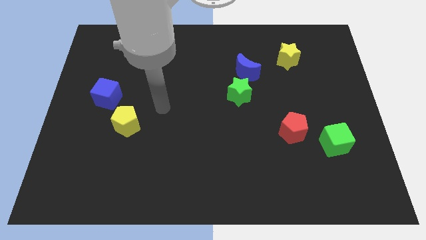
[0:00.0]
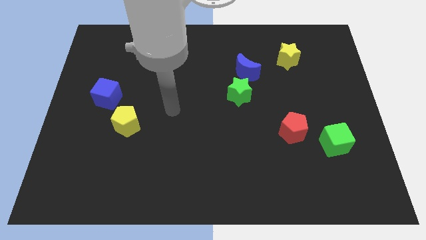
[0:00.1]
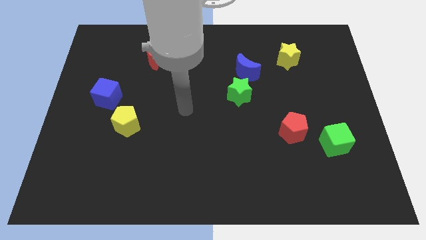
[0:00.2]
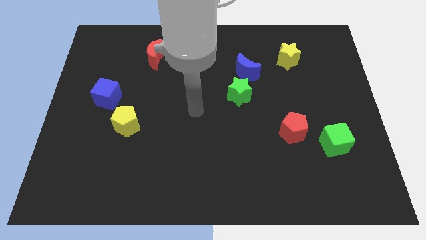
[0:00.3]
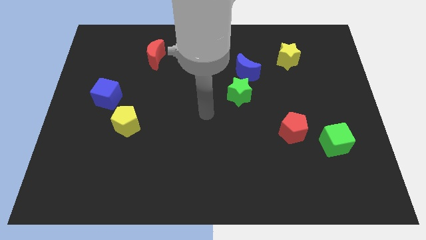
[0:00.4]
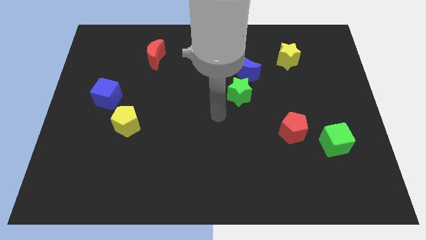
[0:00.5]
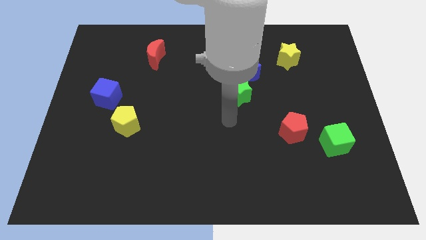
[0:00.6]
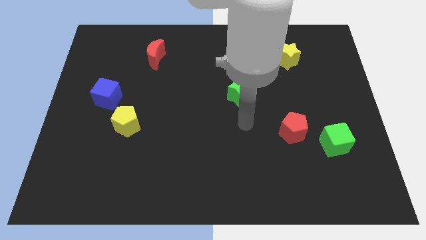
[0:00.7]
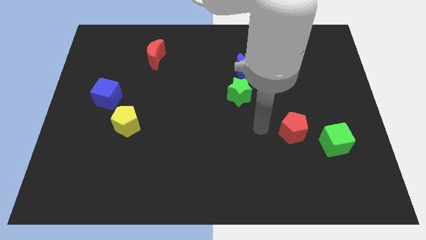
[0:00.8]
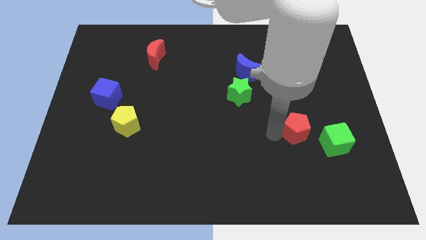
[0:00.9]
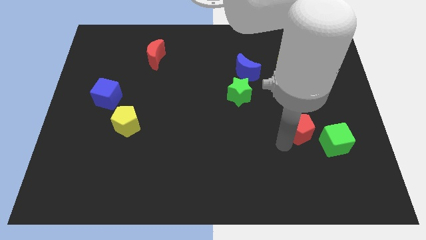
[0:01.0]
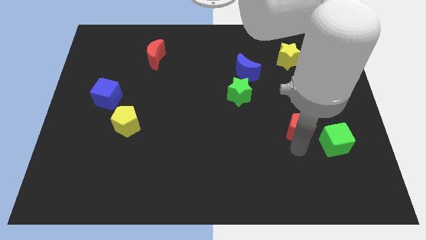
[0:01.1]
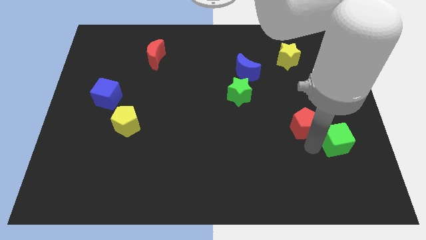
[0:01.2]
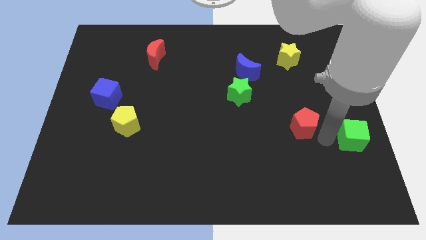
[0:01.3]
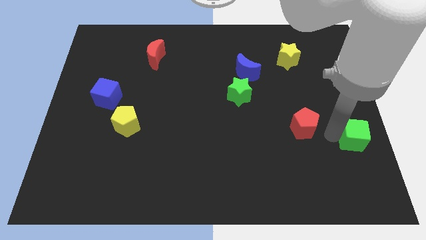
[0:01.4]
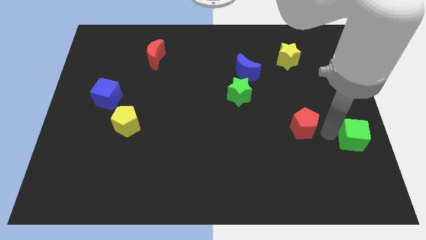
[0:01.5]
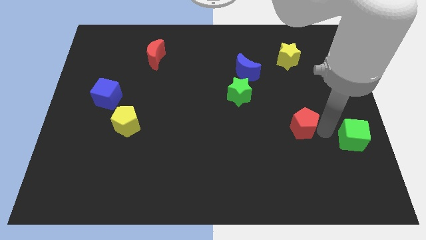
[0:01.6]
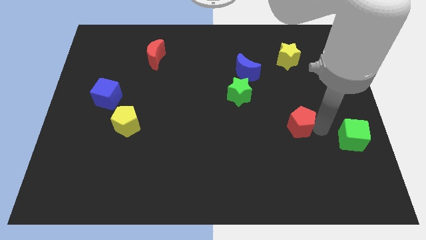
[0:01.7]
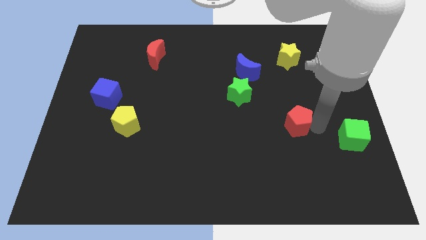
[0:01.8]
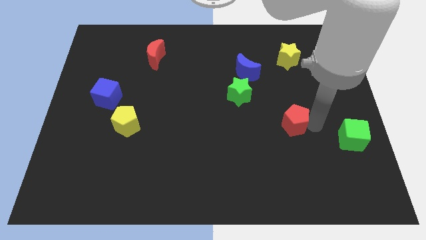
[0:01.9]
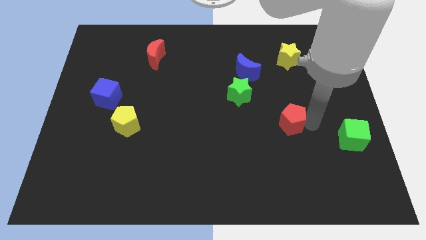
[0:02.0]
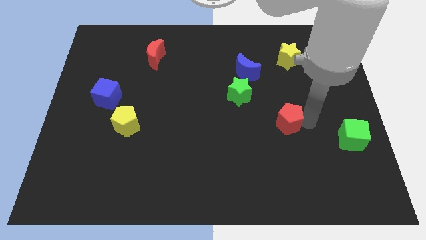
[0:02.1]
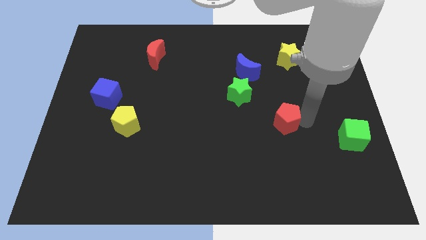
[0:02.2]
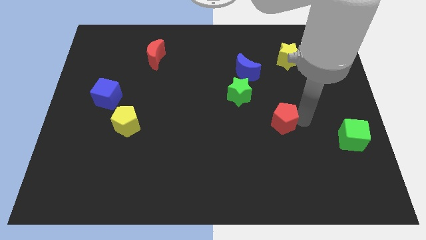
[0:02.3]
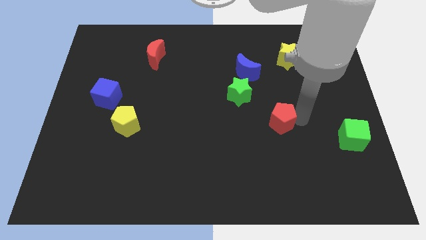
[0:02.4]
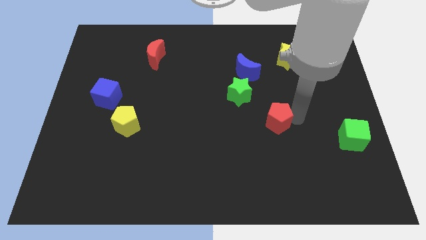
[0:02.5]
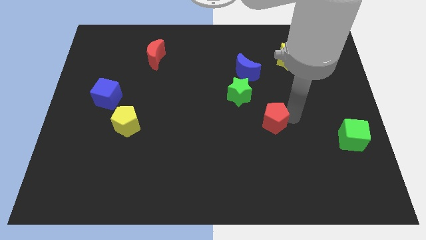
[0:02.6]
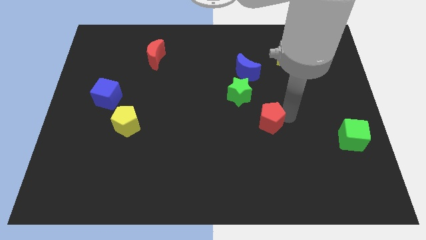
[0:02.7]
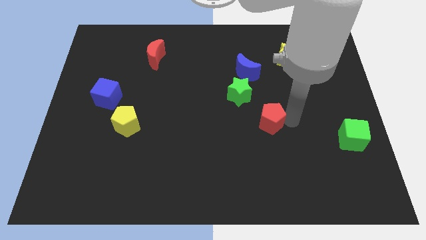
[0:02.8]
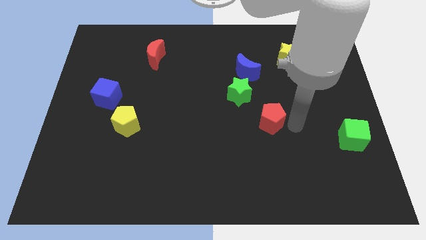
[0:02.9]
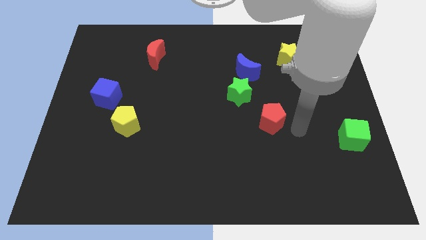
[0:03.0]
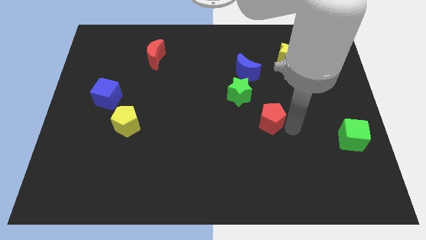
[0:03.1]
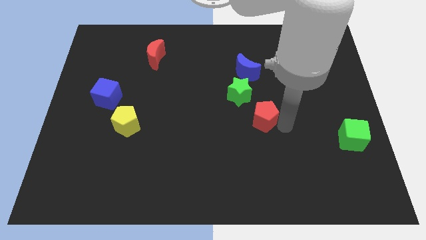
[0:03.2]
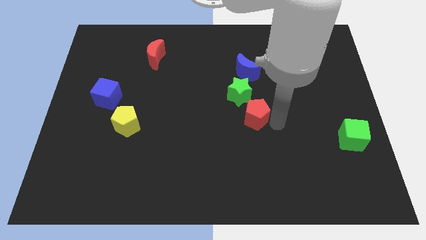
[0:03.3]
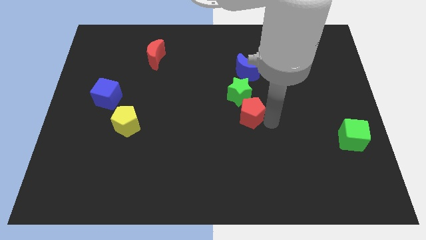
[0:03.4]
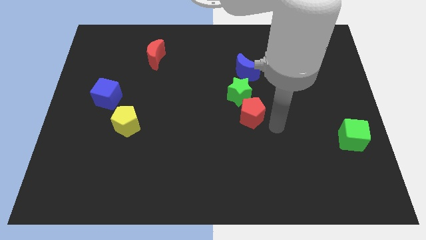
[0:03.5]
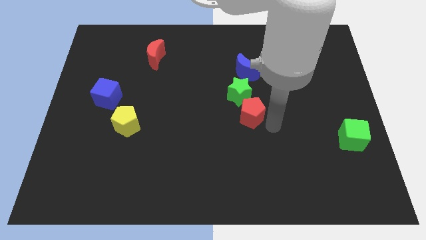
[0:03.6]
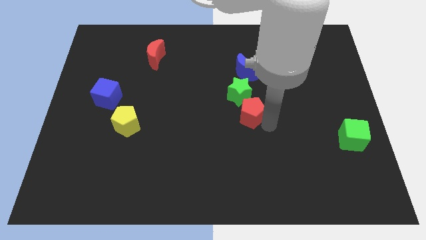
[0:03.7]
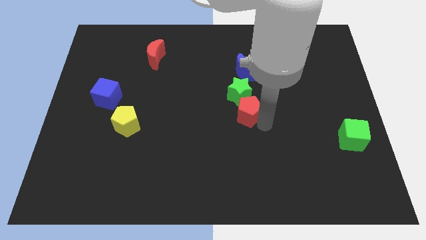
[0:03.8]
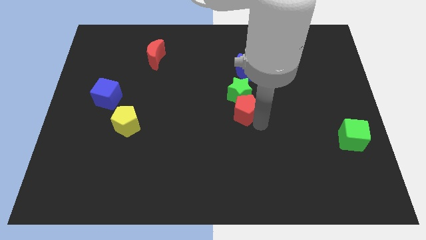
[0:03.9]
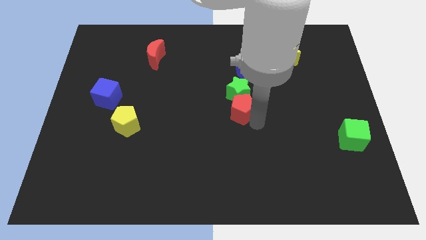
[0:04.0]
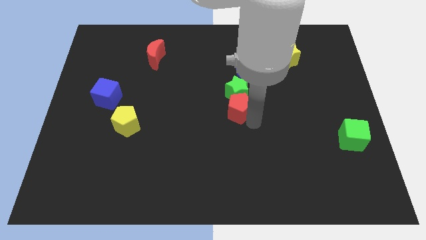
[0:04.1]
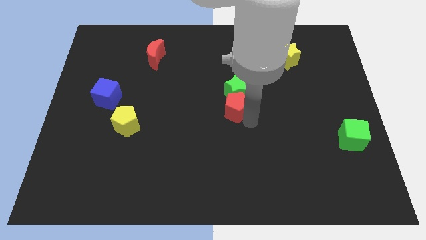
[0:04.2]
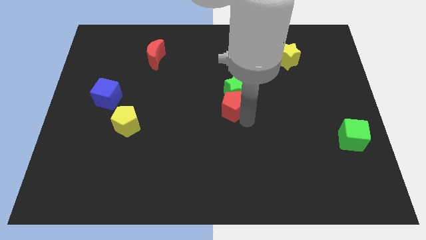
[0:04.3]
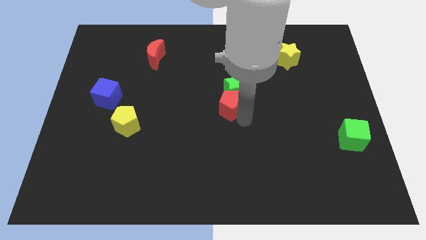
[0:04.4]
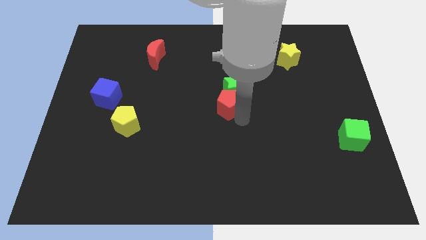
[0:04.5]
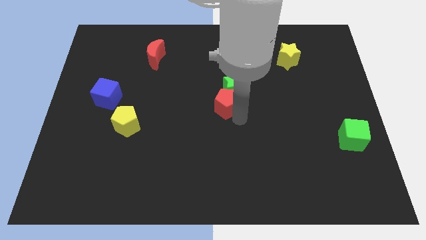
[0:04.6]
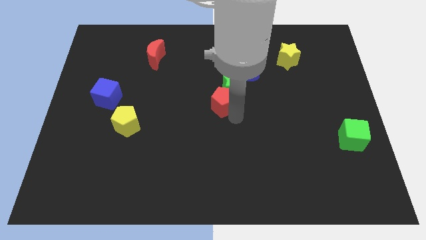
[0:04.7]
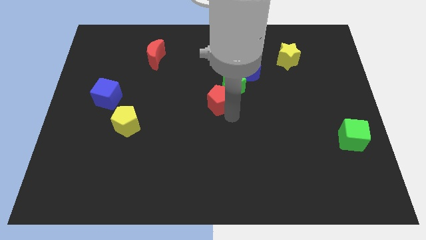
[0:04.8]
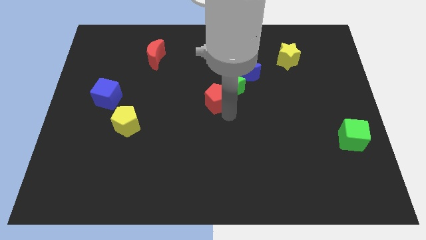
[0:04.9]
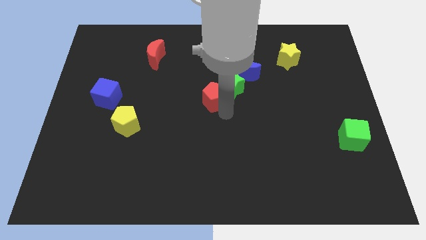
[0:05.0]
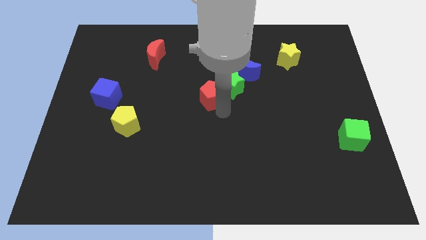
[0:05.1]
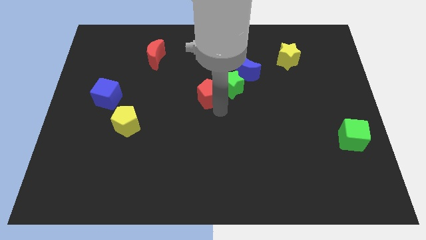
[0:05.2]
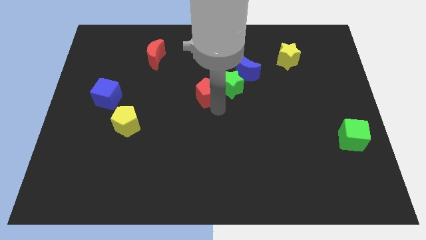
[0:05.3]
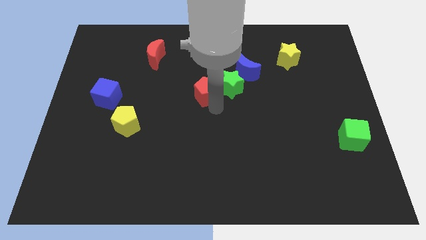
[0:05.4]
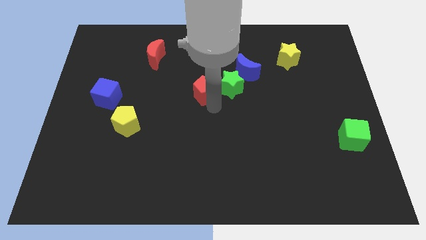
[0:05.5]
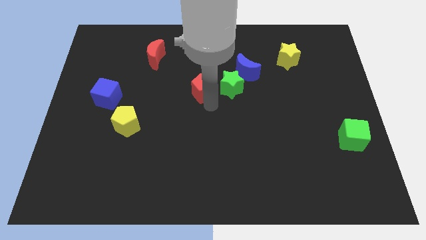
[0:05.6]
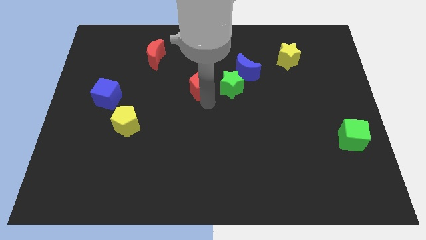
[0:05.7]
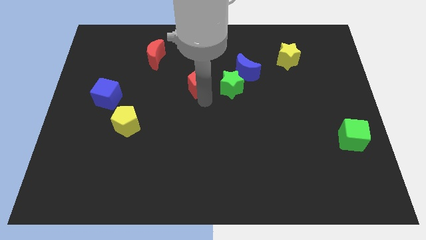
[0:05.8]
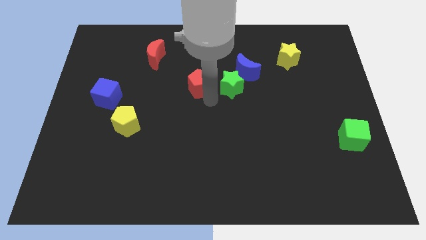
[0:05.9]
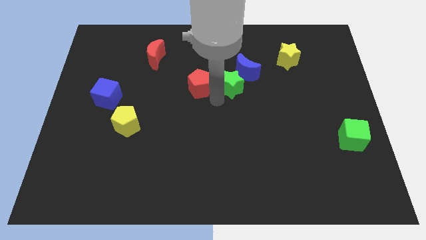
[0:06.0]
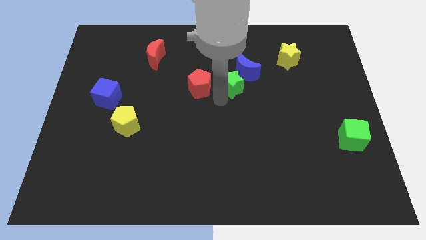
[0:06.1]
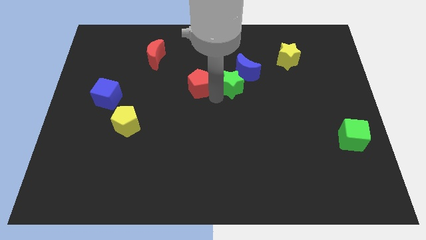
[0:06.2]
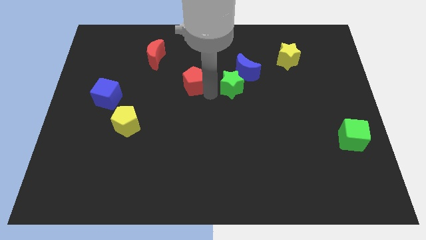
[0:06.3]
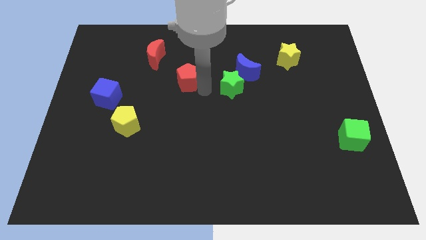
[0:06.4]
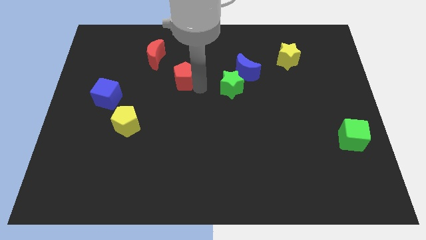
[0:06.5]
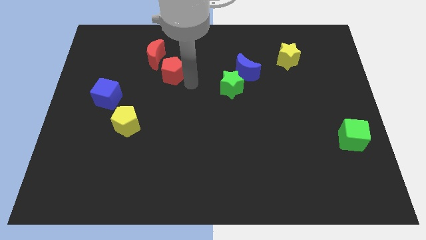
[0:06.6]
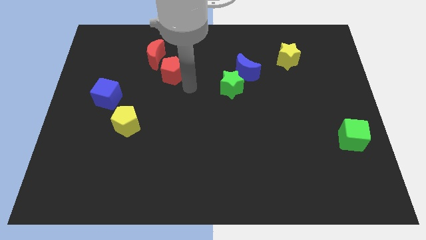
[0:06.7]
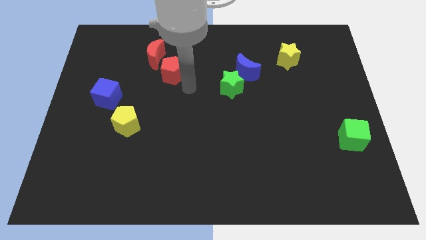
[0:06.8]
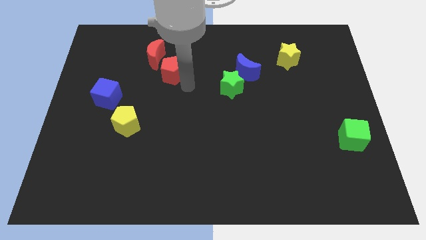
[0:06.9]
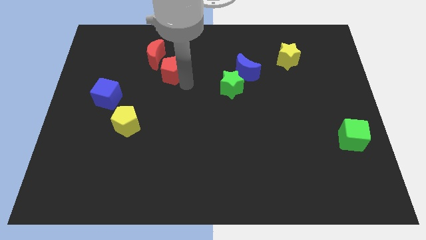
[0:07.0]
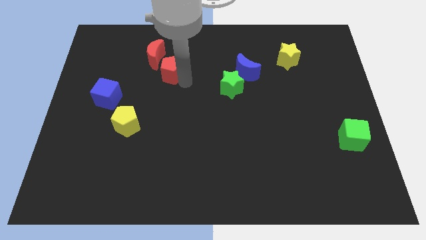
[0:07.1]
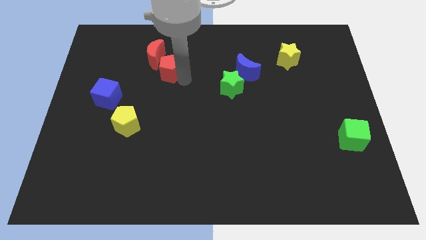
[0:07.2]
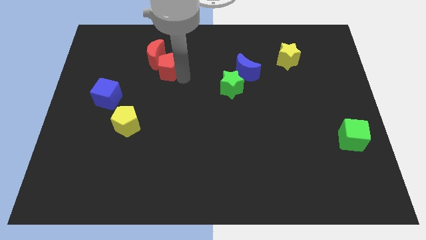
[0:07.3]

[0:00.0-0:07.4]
push the red pentagon to the red moon
